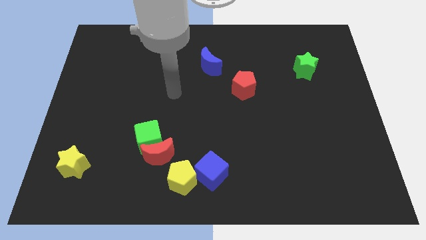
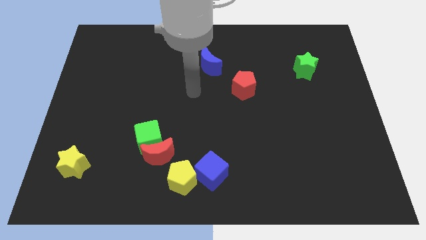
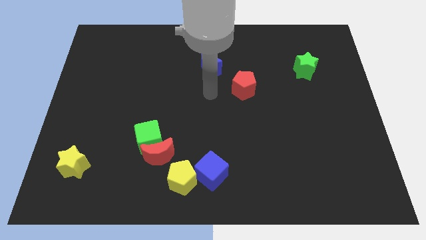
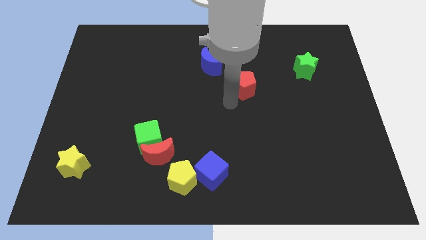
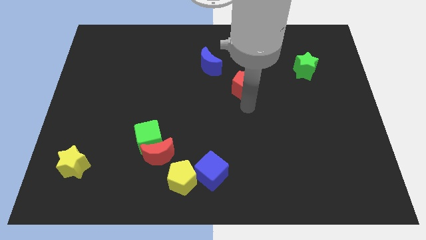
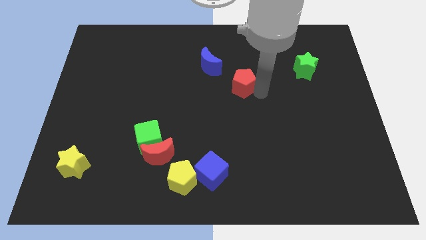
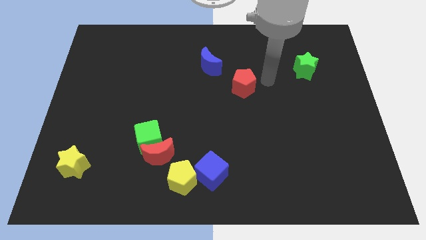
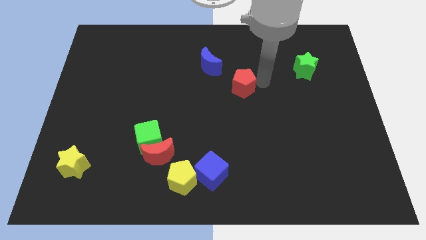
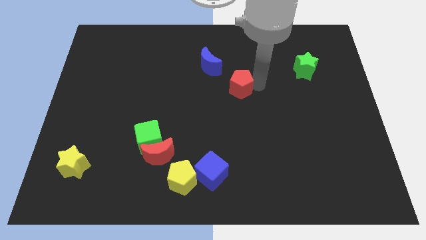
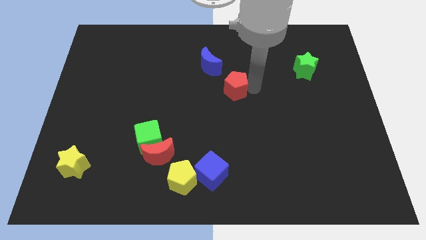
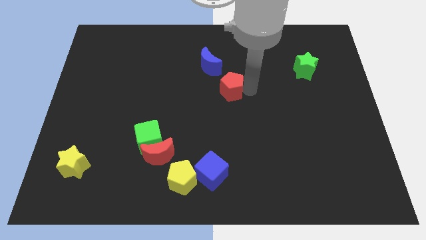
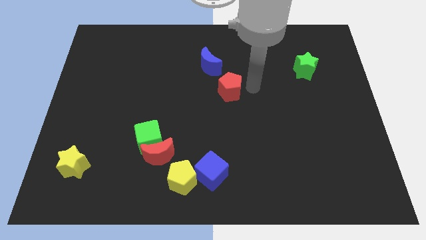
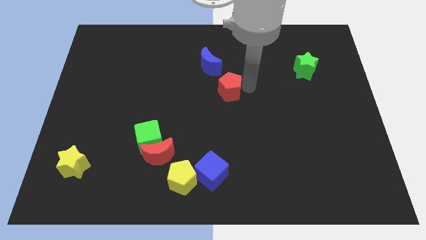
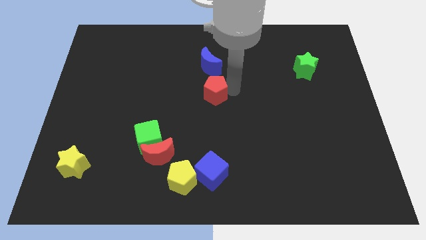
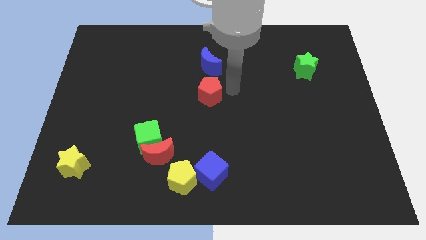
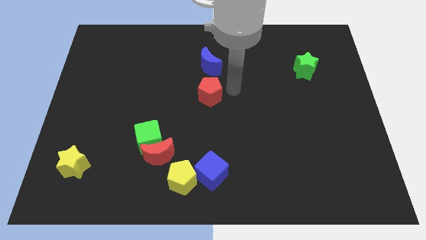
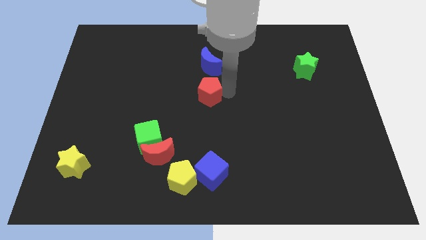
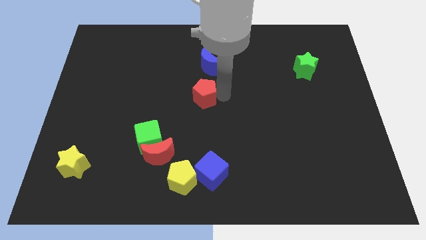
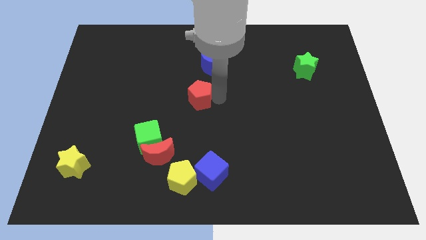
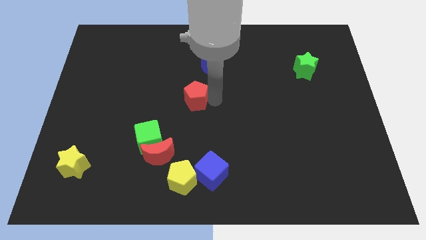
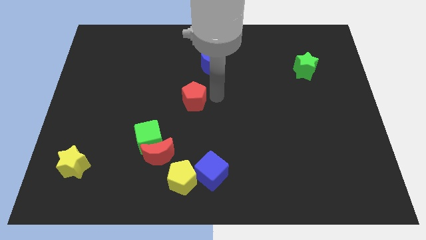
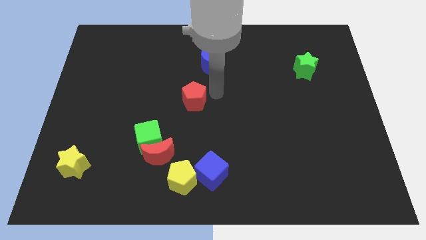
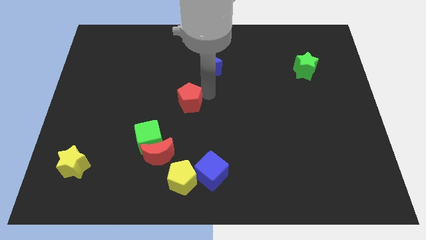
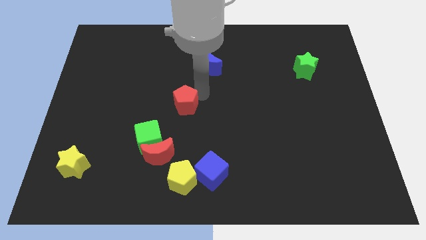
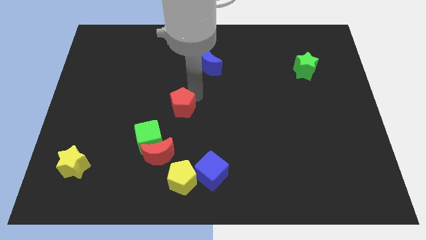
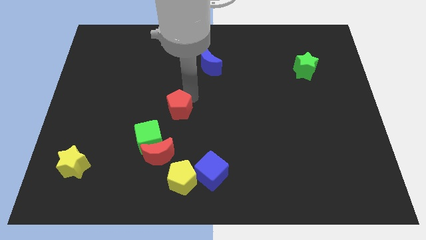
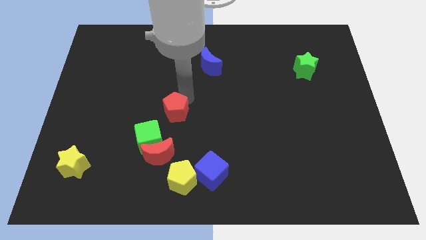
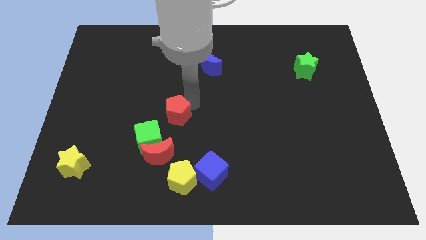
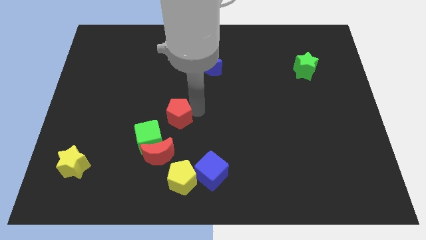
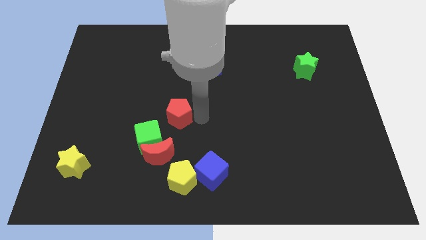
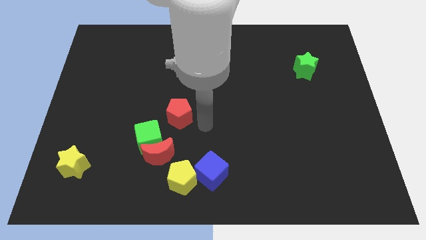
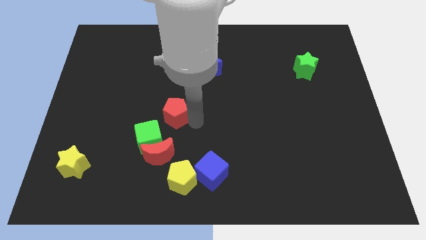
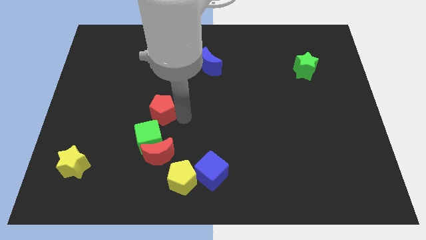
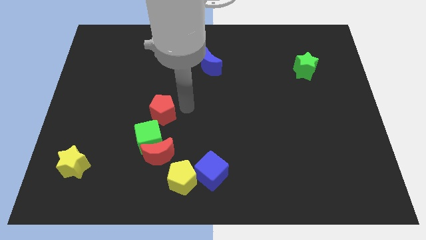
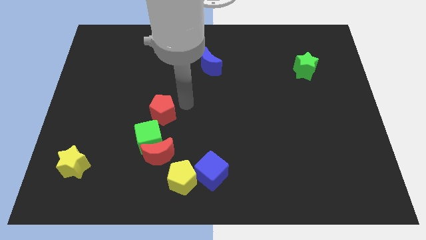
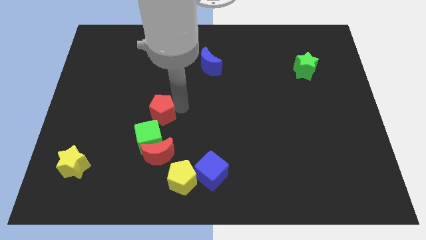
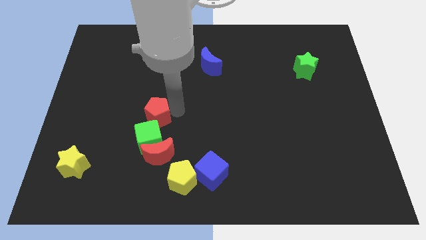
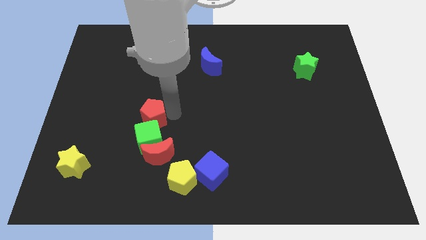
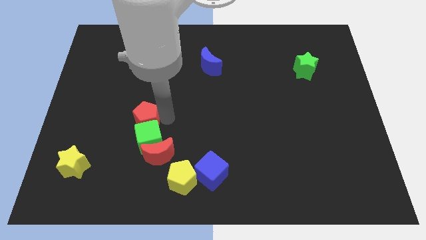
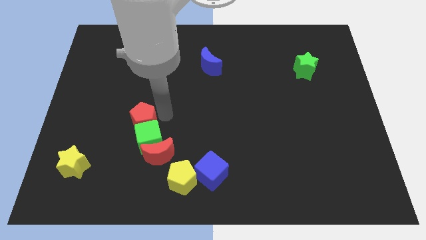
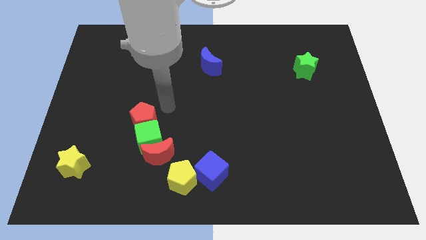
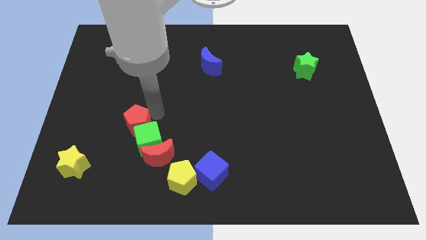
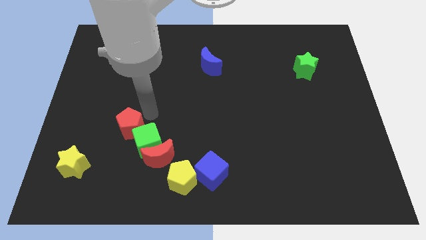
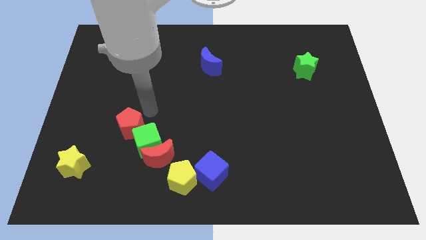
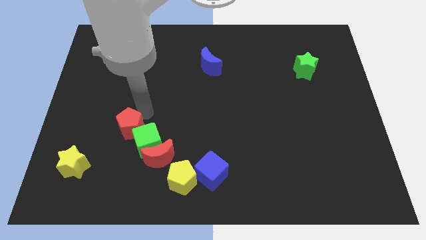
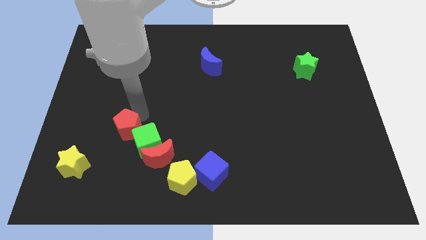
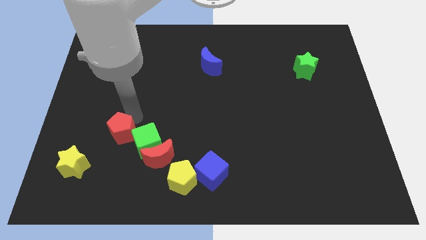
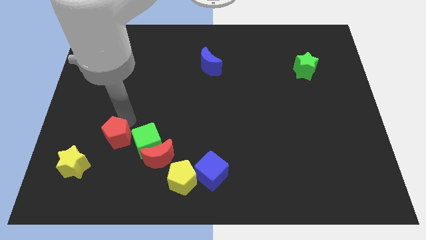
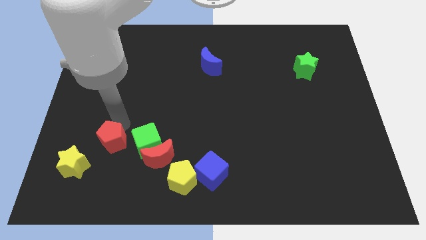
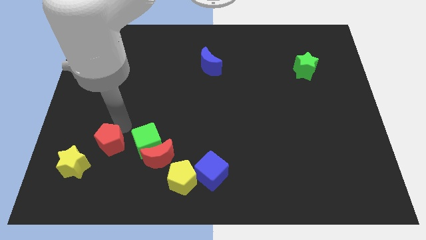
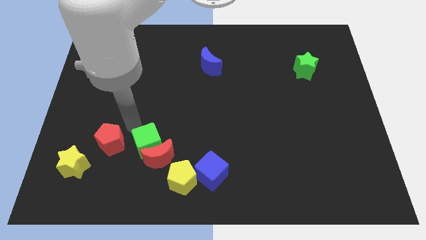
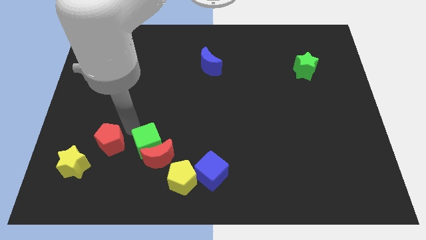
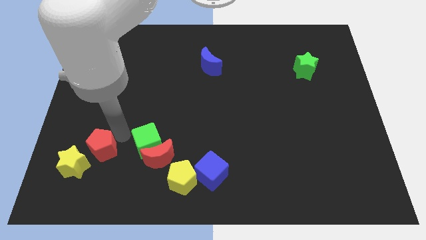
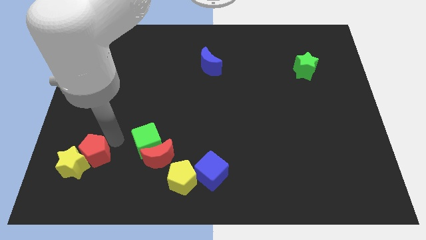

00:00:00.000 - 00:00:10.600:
move the red pentagon close to the yellow star

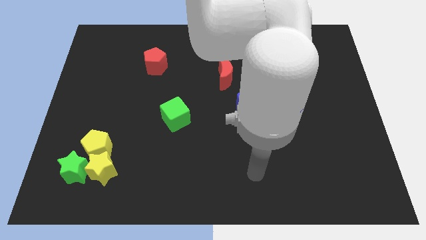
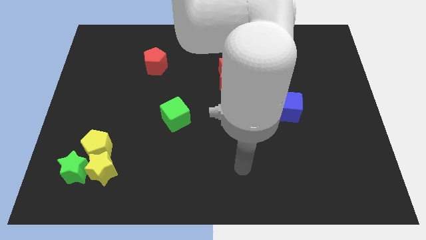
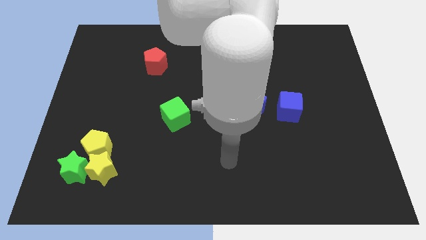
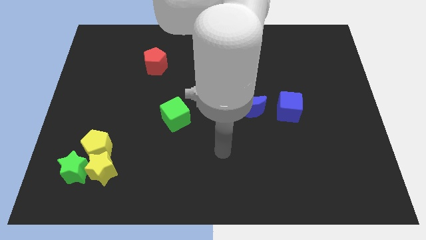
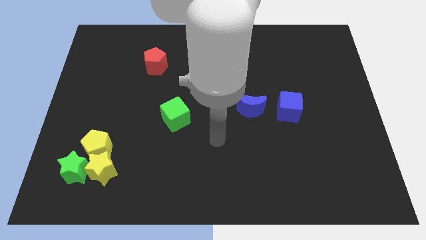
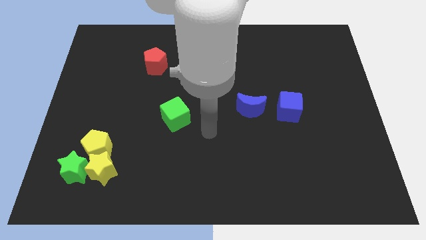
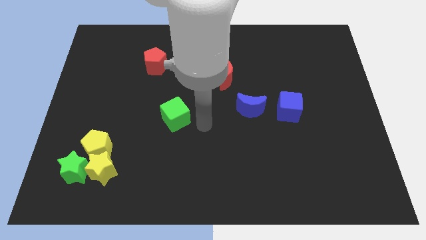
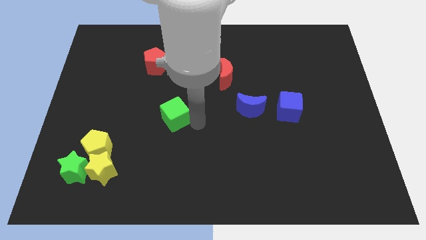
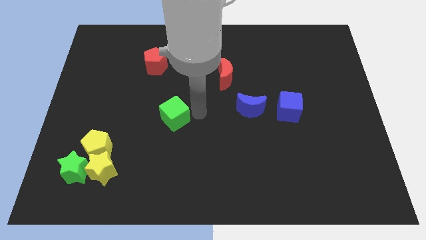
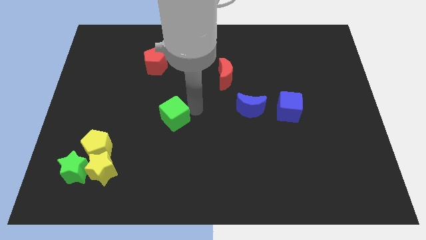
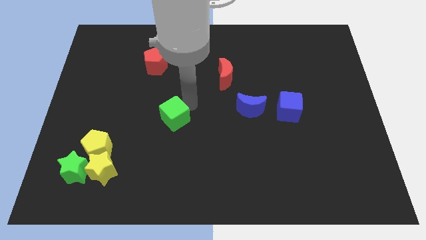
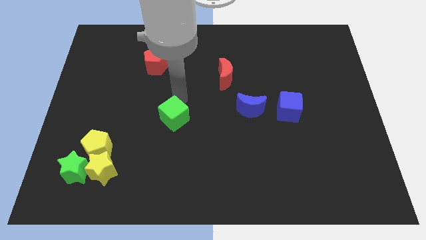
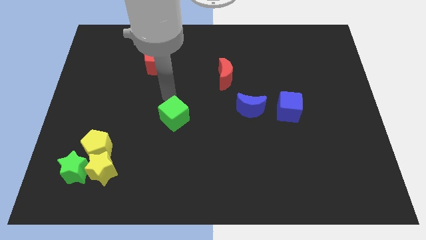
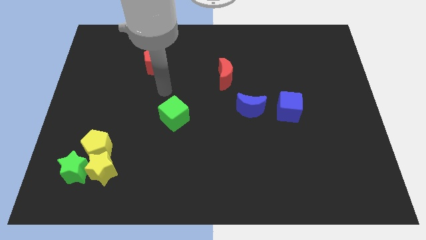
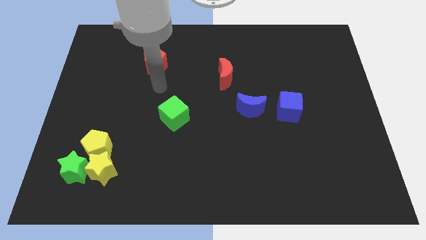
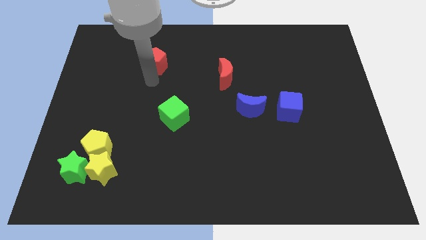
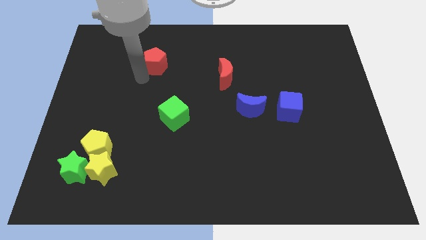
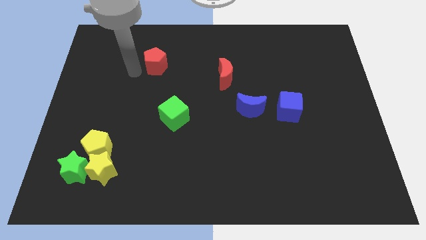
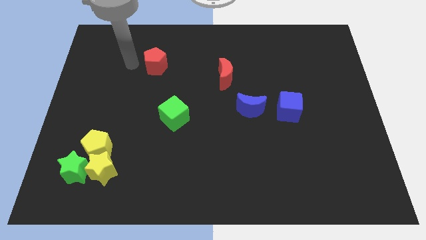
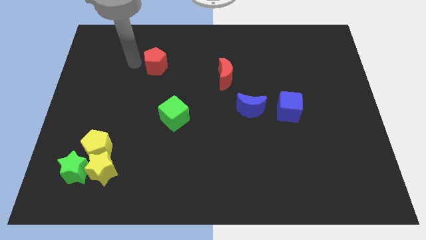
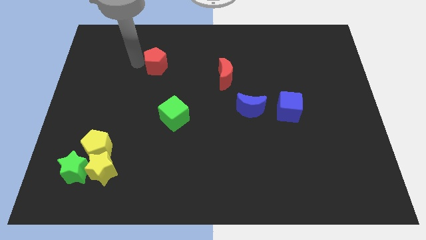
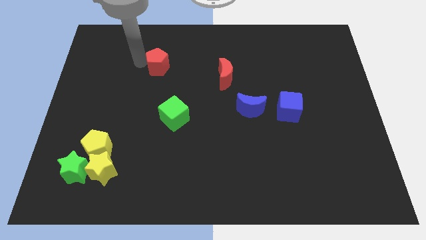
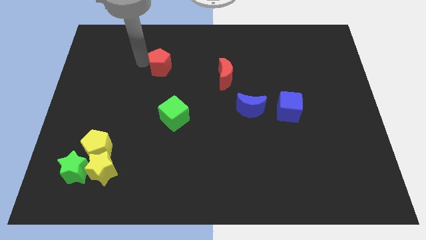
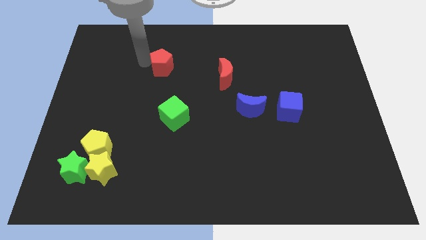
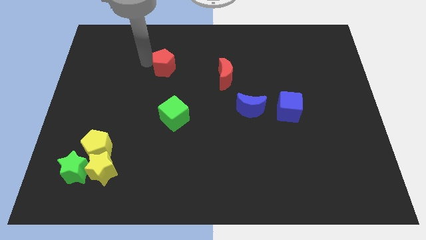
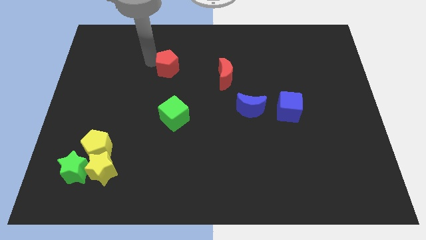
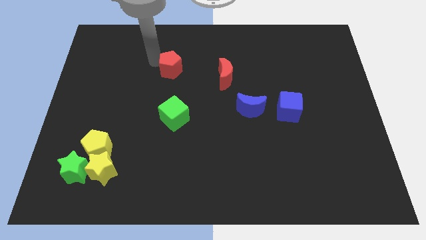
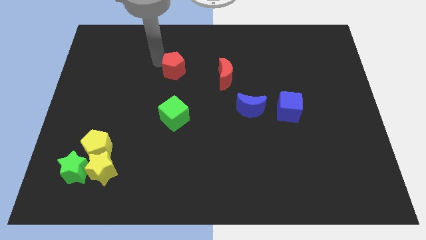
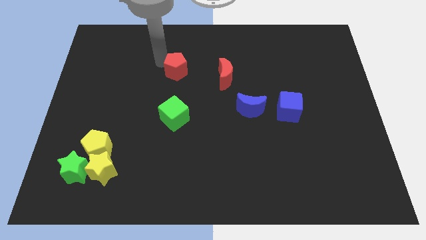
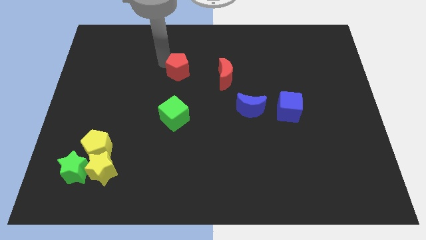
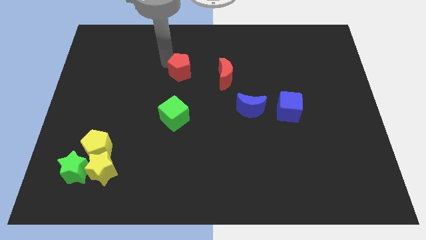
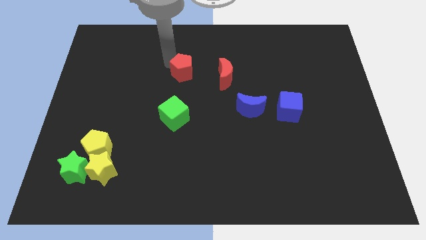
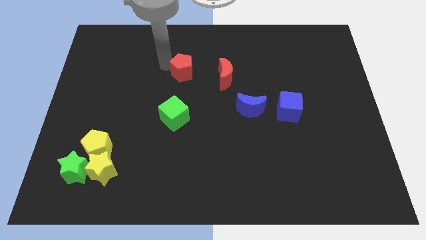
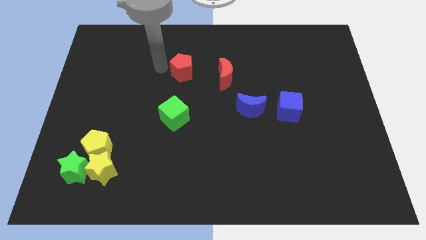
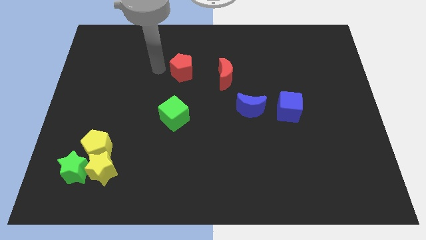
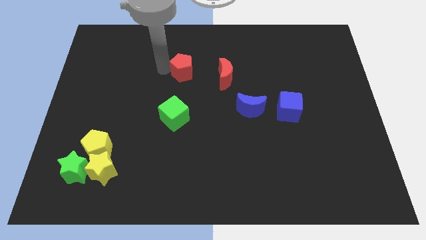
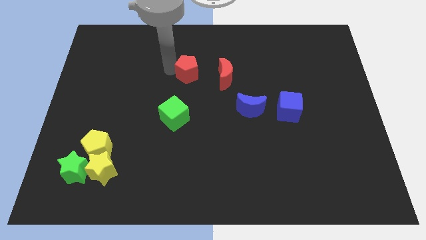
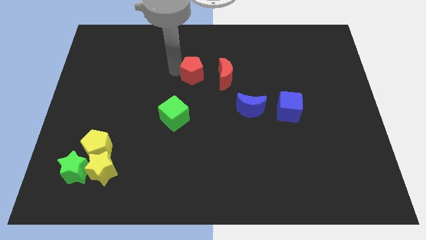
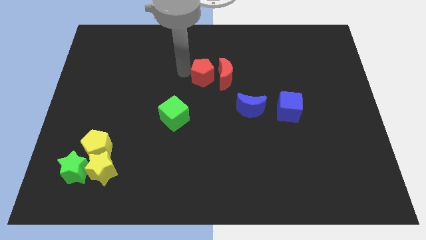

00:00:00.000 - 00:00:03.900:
push the red pentagon towards the red moon
